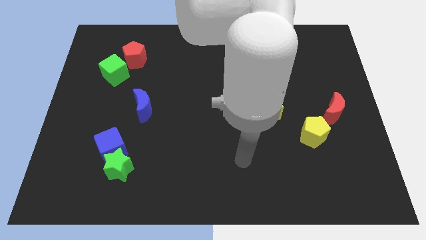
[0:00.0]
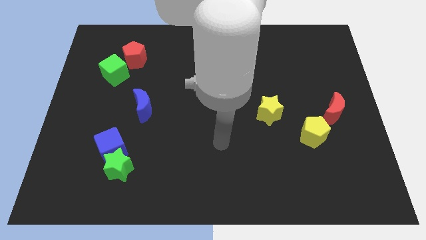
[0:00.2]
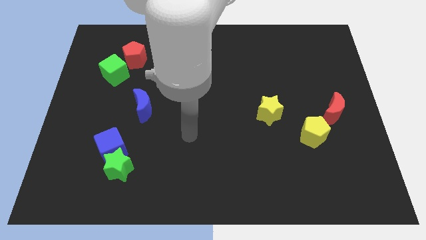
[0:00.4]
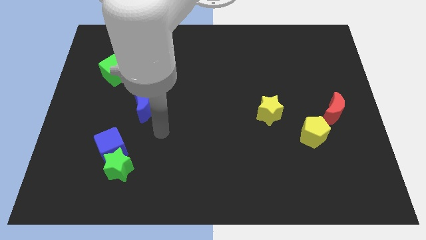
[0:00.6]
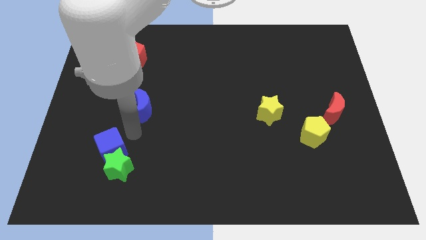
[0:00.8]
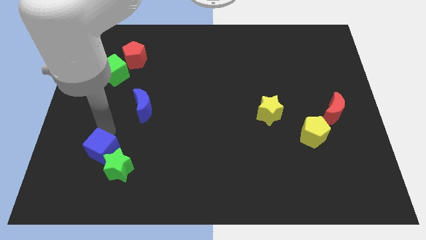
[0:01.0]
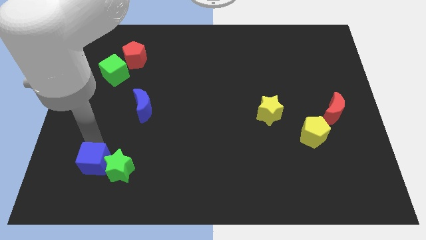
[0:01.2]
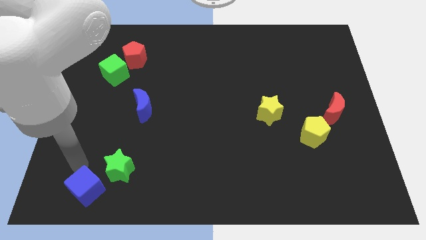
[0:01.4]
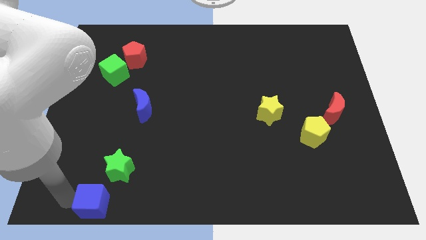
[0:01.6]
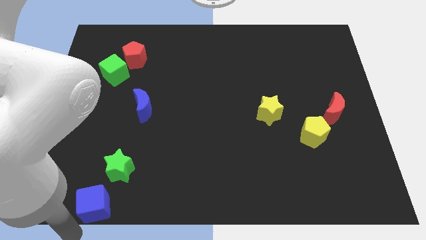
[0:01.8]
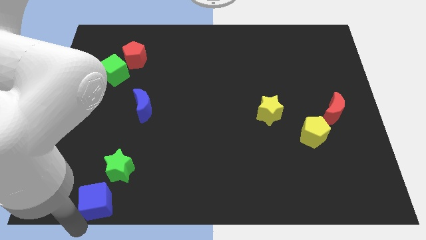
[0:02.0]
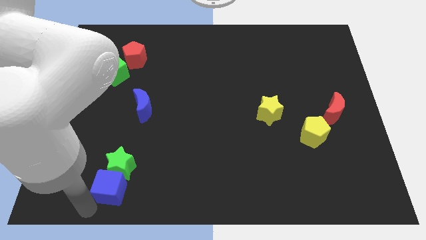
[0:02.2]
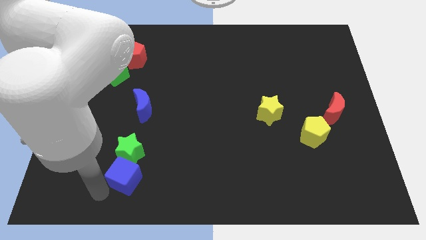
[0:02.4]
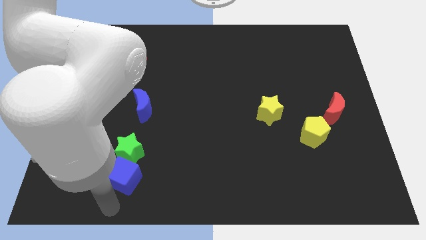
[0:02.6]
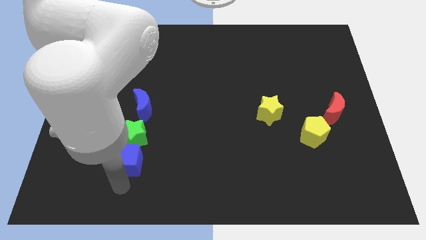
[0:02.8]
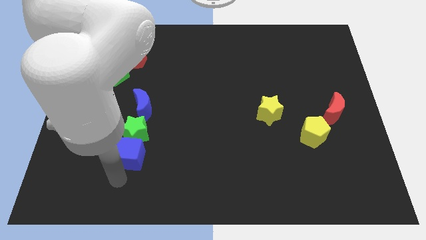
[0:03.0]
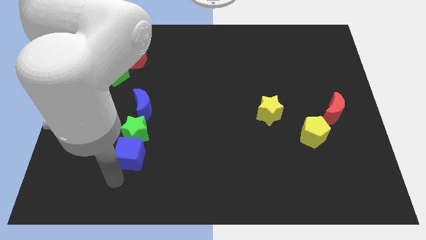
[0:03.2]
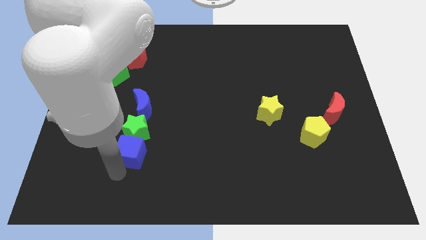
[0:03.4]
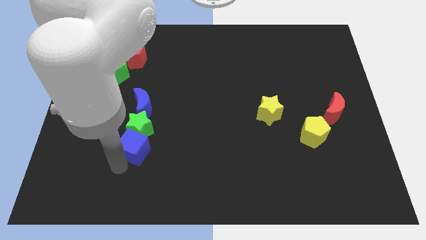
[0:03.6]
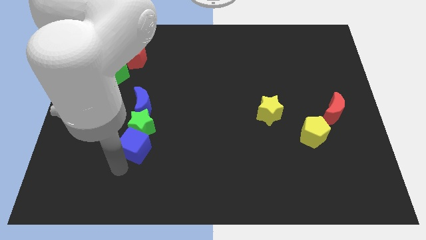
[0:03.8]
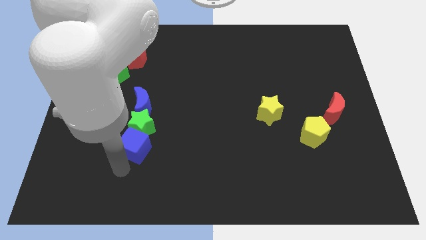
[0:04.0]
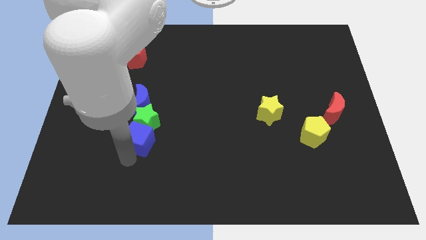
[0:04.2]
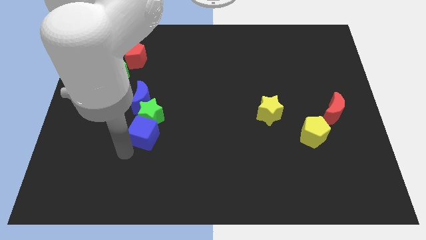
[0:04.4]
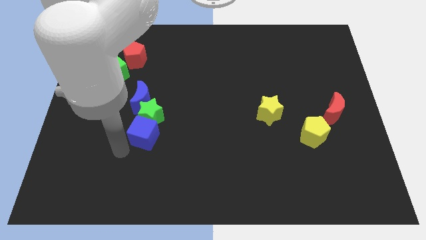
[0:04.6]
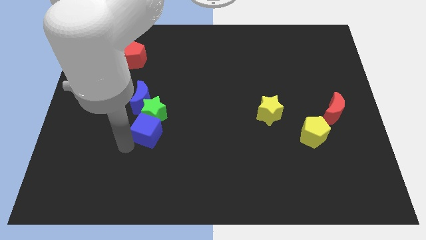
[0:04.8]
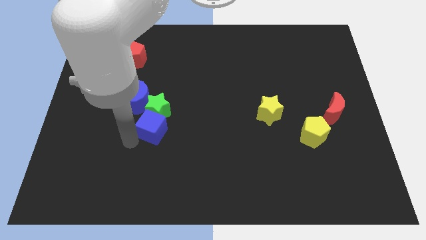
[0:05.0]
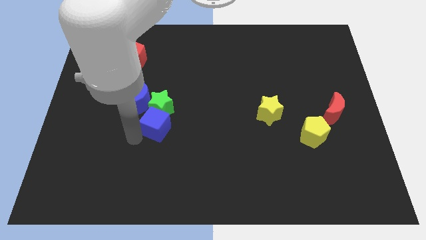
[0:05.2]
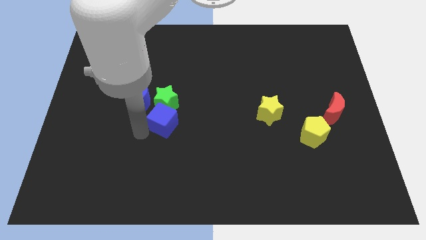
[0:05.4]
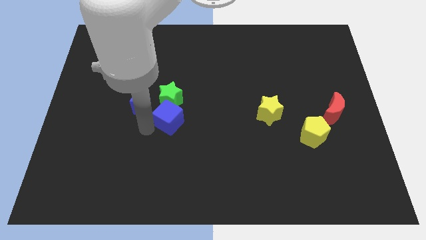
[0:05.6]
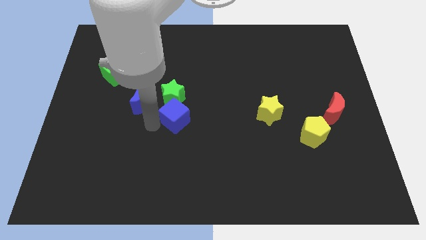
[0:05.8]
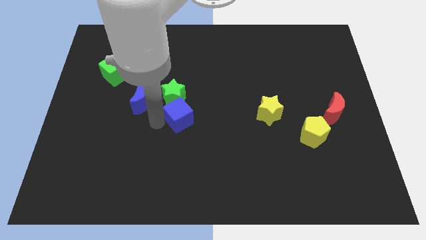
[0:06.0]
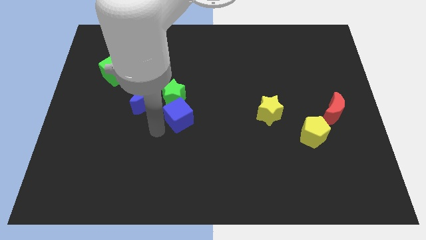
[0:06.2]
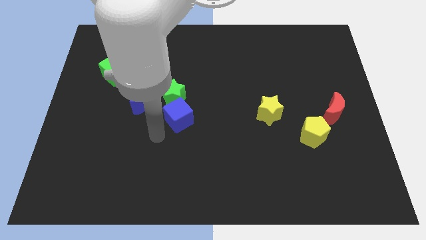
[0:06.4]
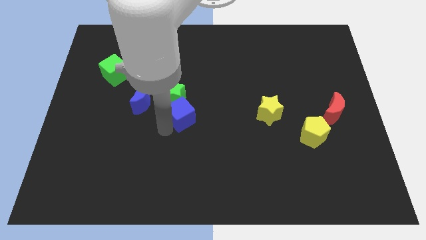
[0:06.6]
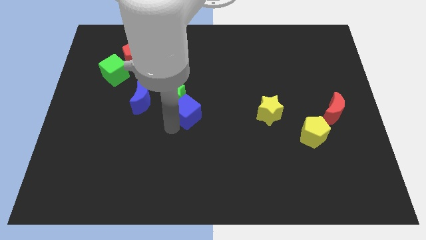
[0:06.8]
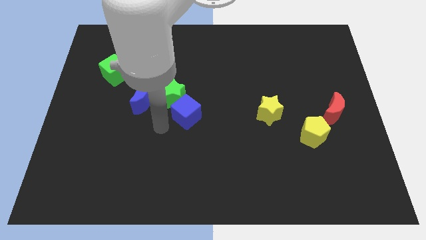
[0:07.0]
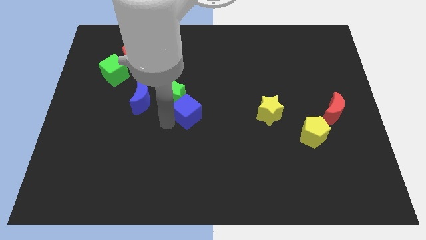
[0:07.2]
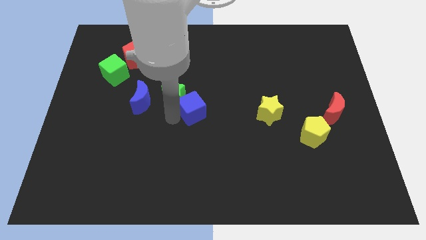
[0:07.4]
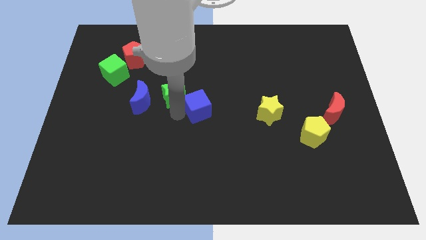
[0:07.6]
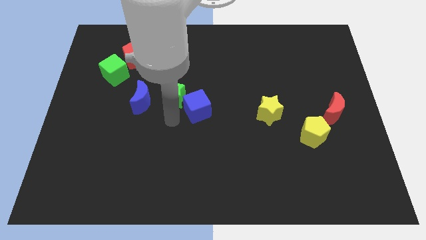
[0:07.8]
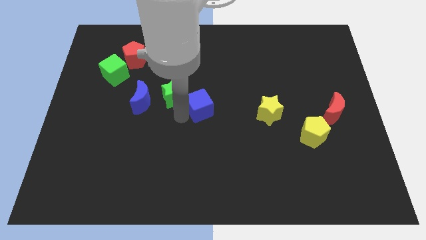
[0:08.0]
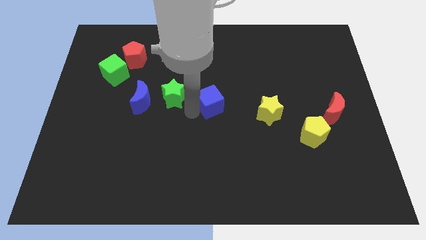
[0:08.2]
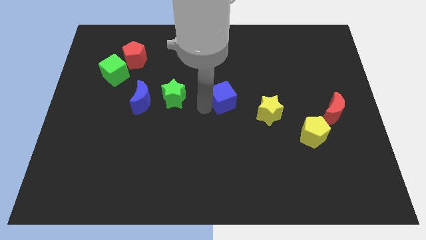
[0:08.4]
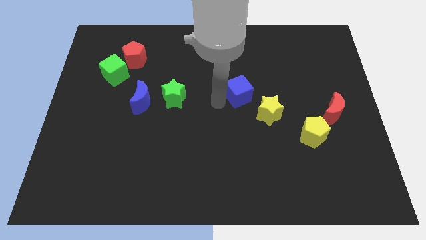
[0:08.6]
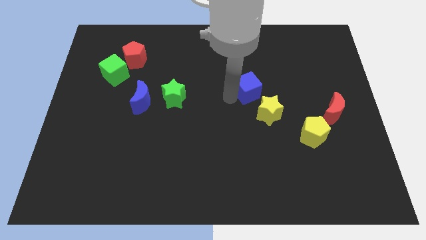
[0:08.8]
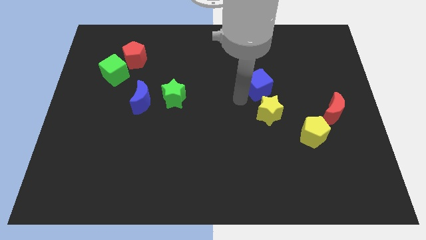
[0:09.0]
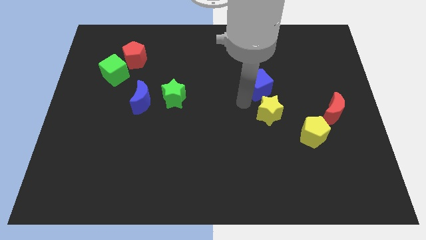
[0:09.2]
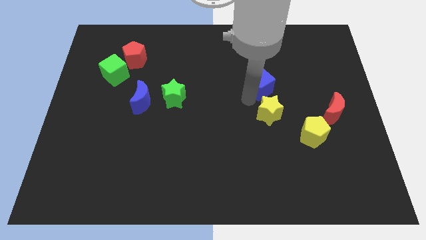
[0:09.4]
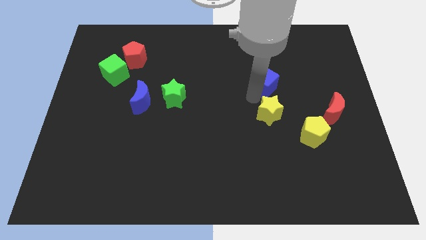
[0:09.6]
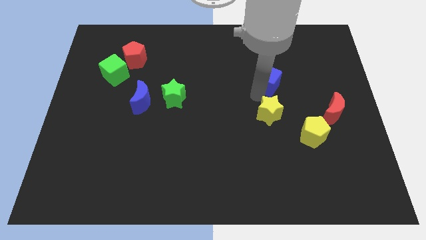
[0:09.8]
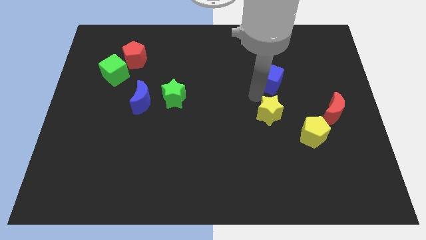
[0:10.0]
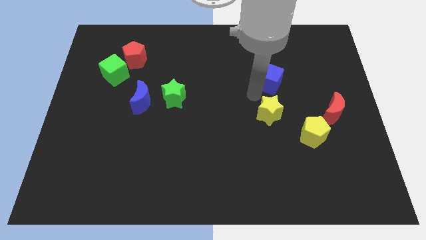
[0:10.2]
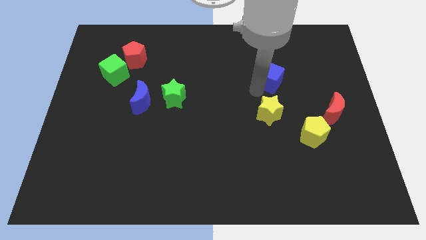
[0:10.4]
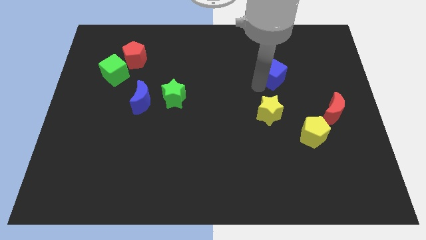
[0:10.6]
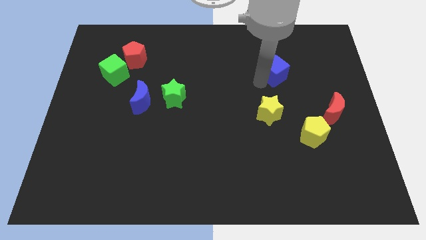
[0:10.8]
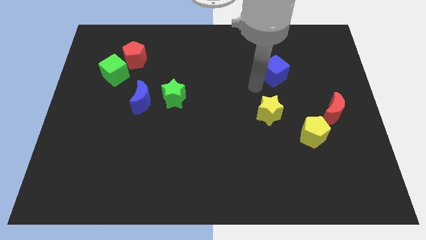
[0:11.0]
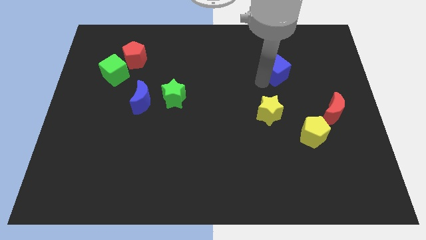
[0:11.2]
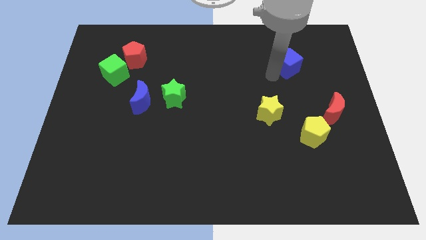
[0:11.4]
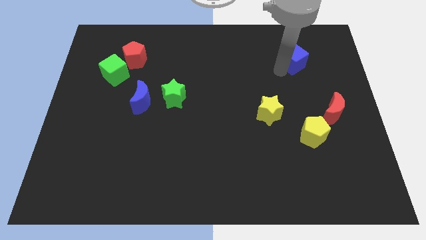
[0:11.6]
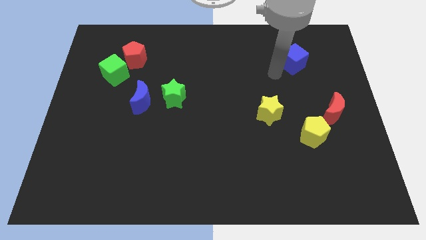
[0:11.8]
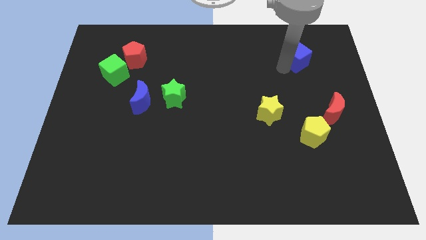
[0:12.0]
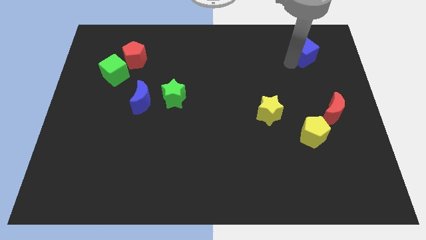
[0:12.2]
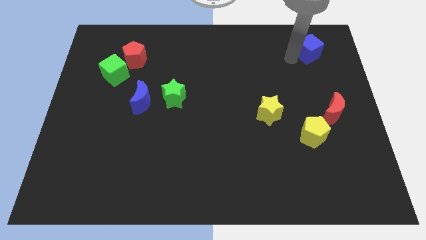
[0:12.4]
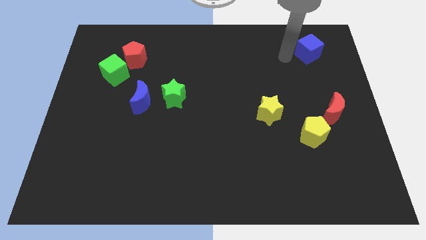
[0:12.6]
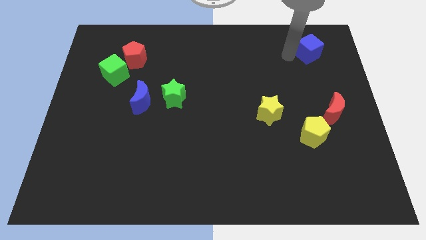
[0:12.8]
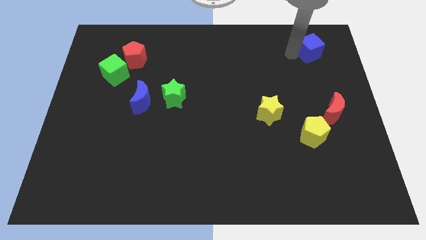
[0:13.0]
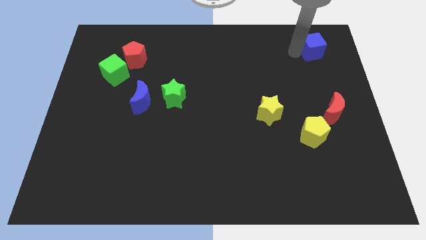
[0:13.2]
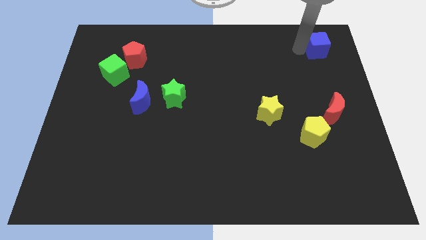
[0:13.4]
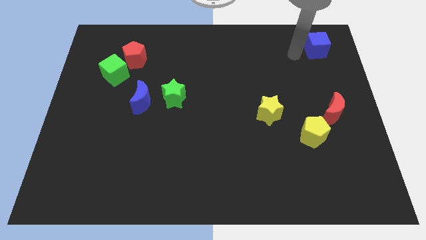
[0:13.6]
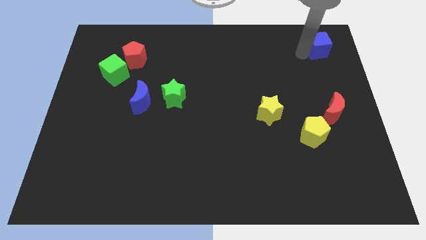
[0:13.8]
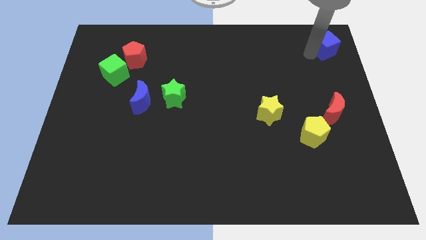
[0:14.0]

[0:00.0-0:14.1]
move the blue cube to the top right
